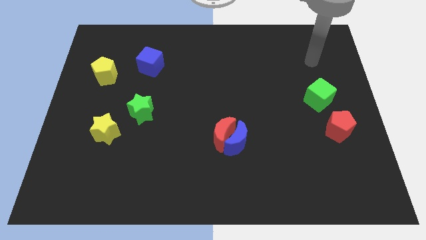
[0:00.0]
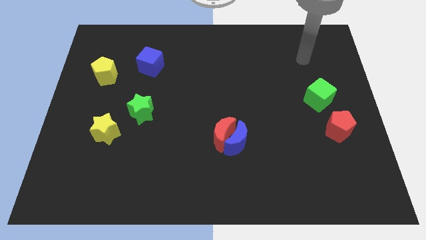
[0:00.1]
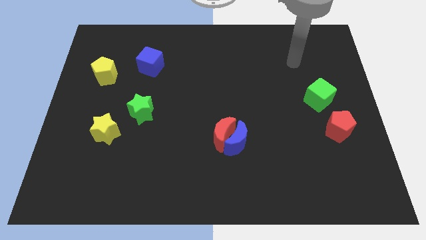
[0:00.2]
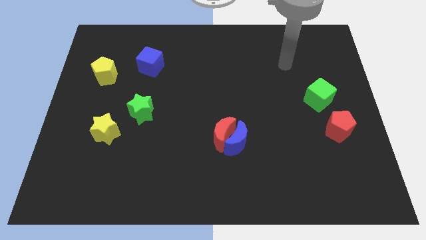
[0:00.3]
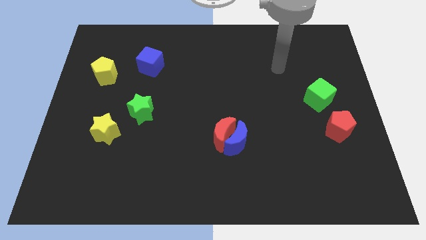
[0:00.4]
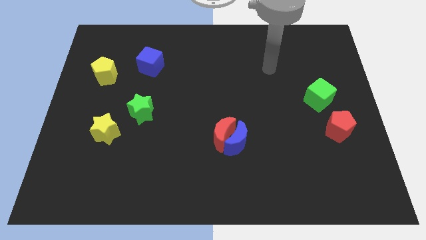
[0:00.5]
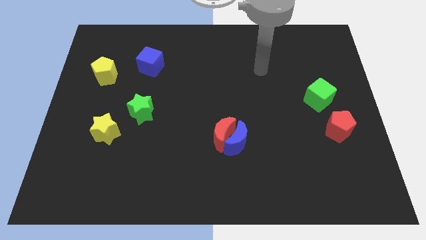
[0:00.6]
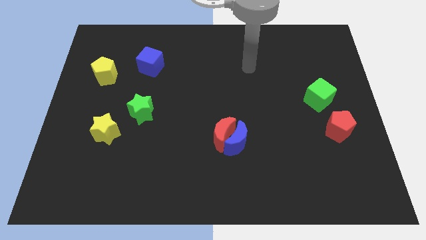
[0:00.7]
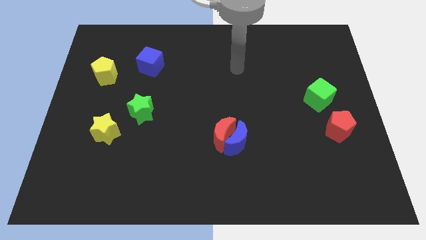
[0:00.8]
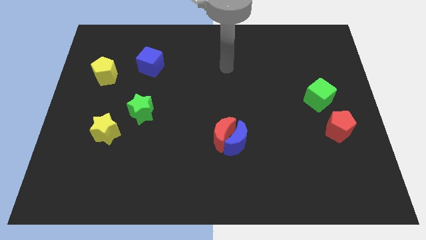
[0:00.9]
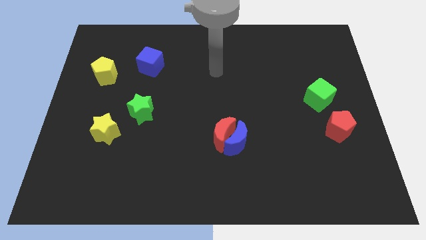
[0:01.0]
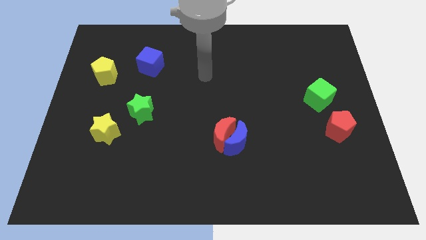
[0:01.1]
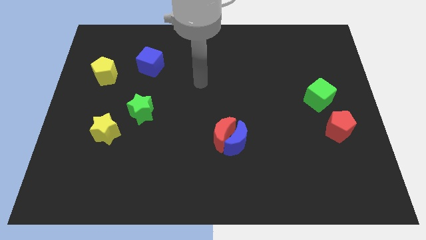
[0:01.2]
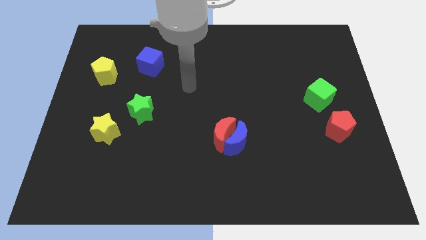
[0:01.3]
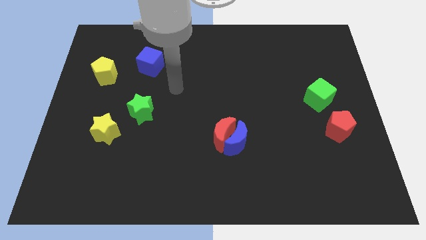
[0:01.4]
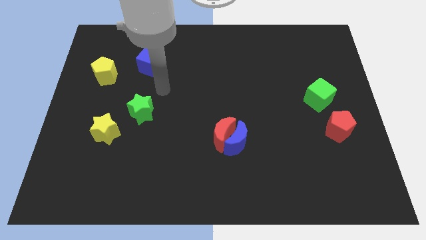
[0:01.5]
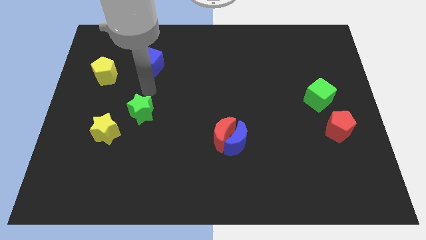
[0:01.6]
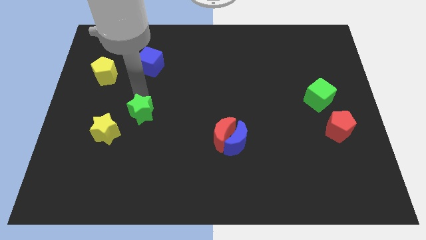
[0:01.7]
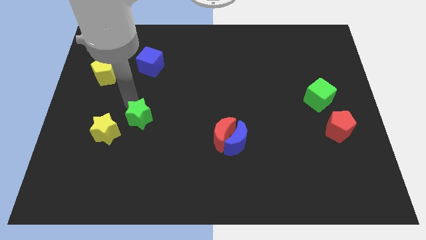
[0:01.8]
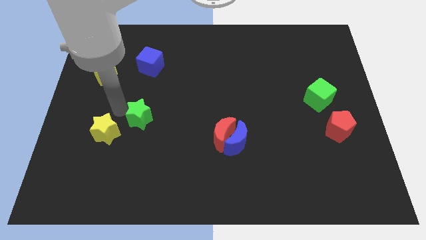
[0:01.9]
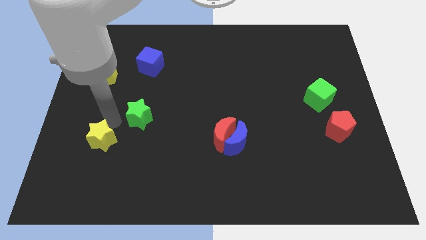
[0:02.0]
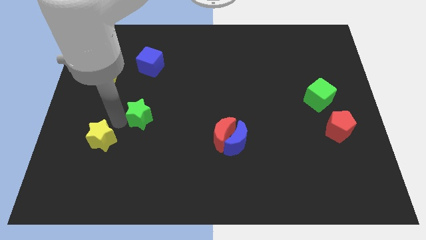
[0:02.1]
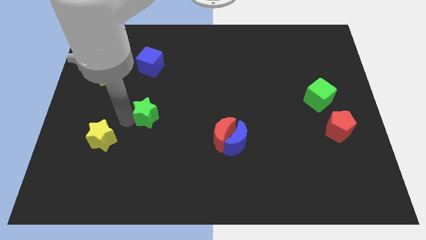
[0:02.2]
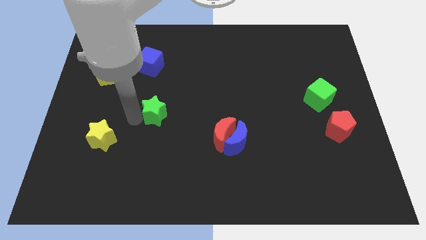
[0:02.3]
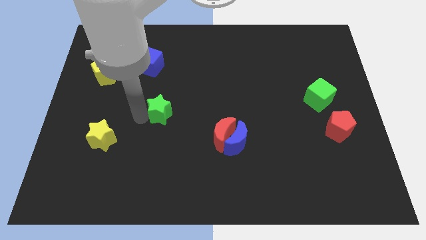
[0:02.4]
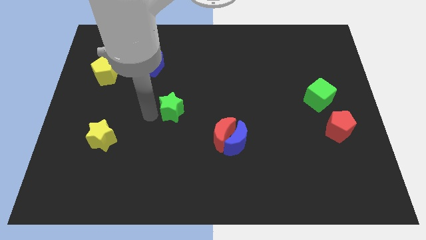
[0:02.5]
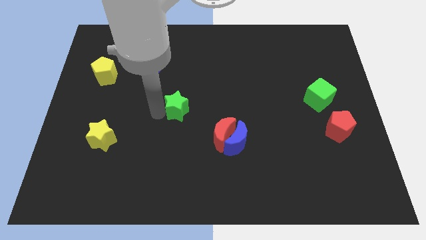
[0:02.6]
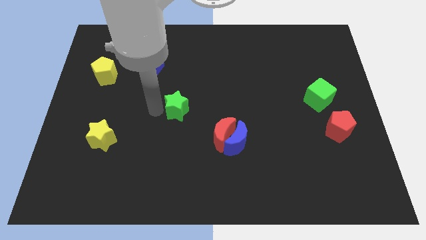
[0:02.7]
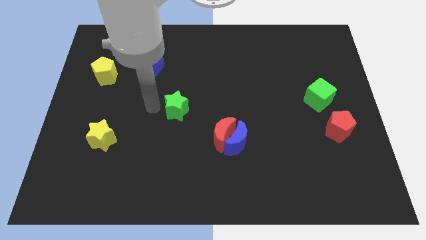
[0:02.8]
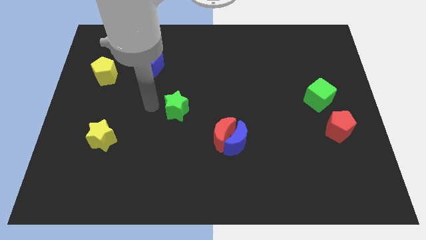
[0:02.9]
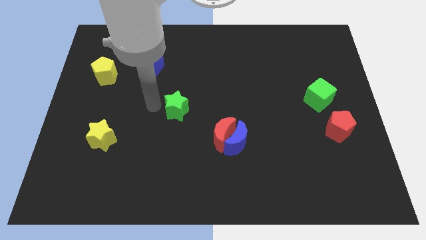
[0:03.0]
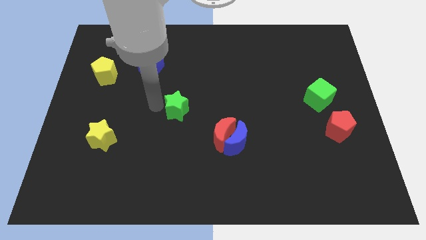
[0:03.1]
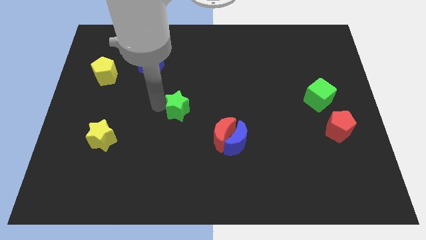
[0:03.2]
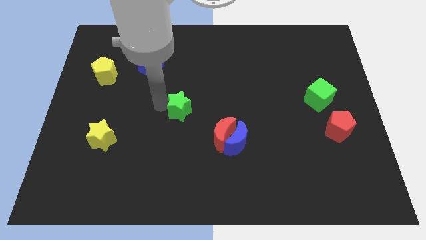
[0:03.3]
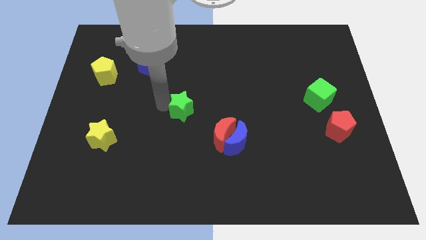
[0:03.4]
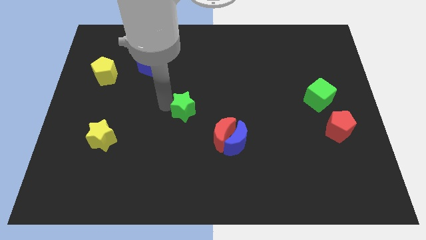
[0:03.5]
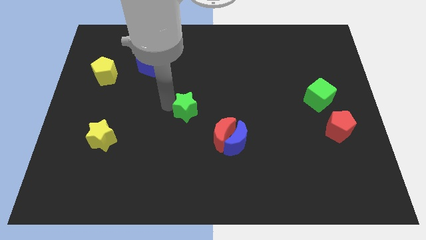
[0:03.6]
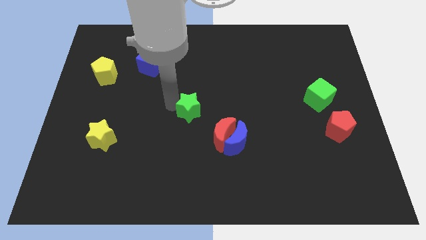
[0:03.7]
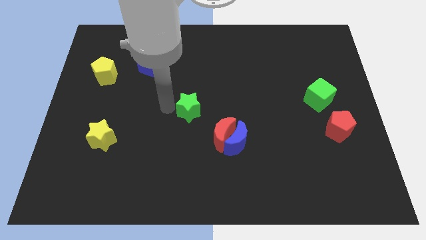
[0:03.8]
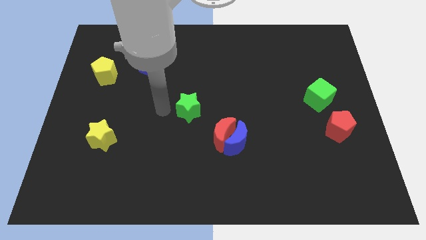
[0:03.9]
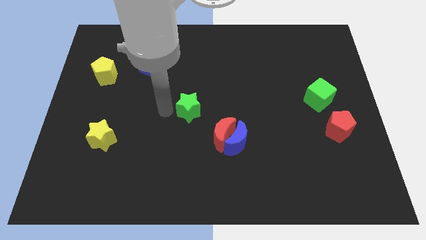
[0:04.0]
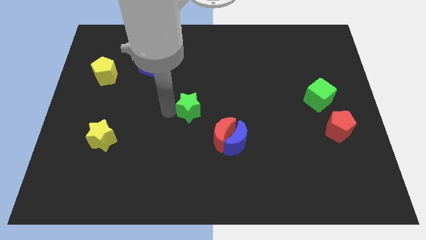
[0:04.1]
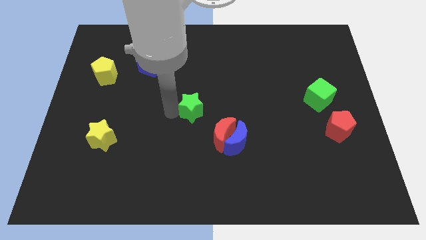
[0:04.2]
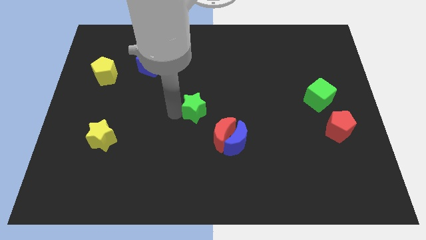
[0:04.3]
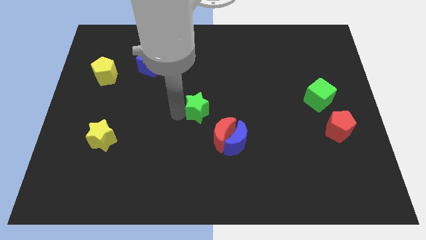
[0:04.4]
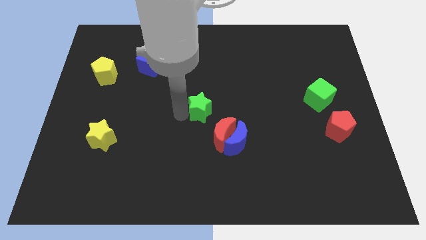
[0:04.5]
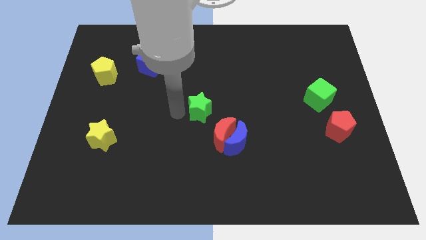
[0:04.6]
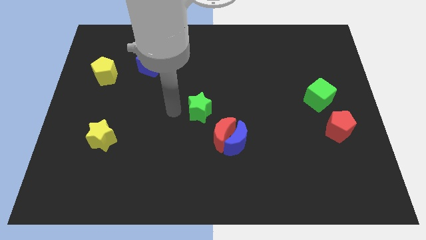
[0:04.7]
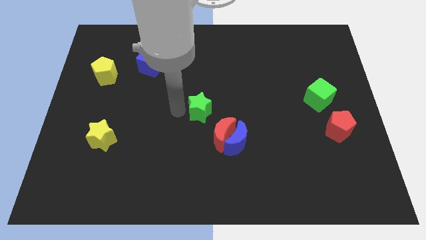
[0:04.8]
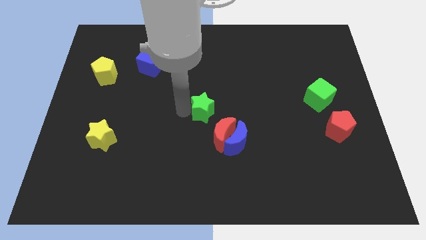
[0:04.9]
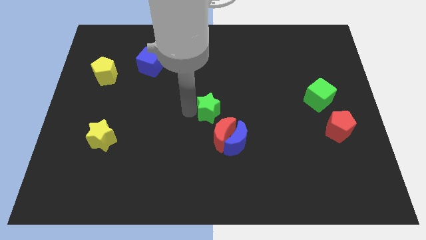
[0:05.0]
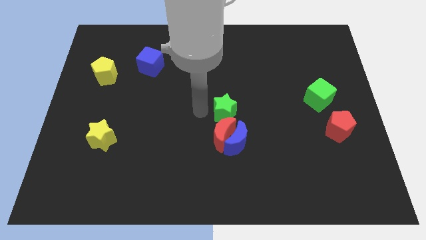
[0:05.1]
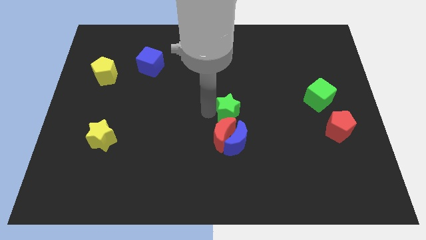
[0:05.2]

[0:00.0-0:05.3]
move the green star right

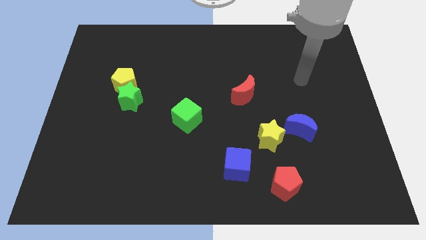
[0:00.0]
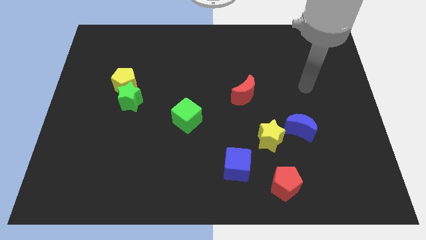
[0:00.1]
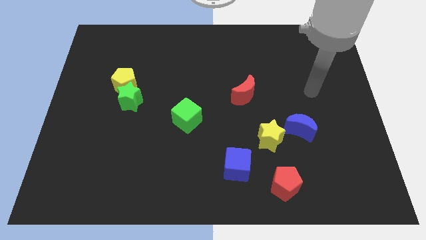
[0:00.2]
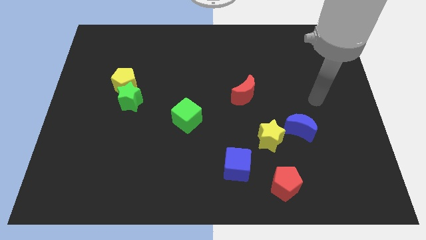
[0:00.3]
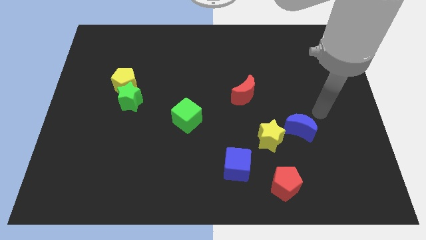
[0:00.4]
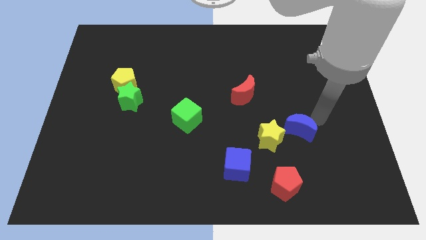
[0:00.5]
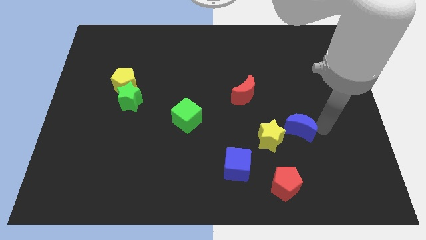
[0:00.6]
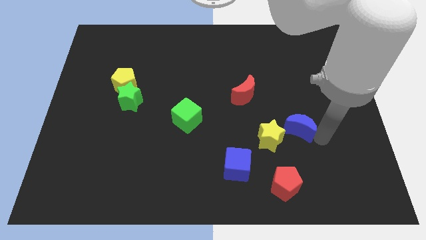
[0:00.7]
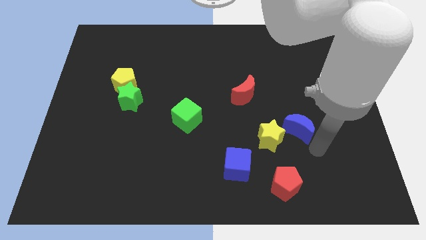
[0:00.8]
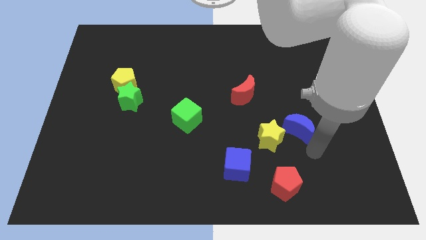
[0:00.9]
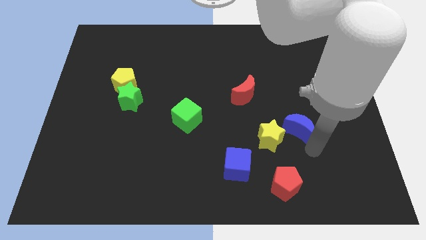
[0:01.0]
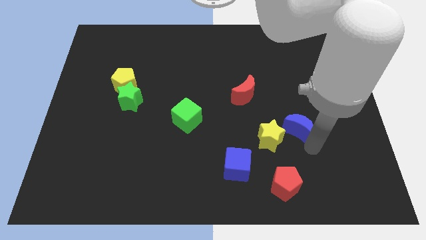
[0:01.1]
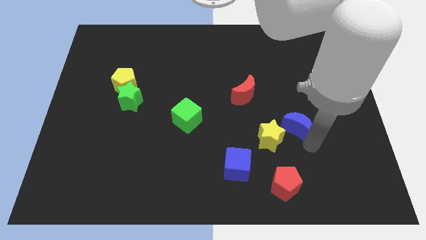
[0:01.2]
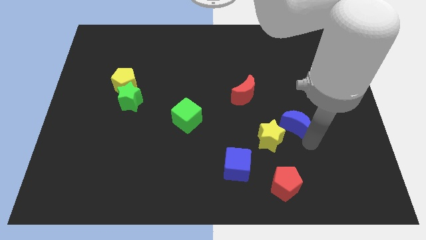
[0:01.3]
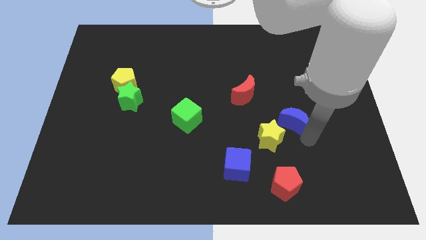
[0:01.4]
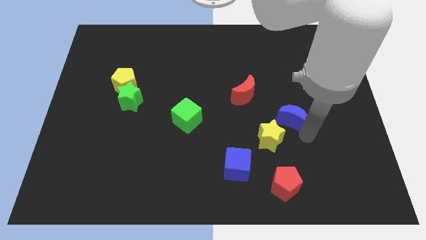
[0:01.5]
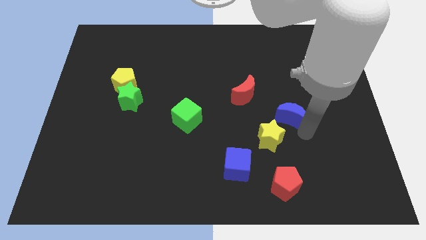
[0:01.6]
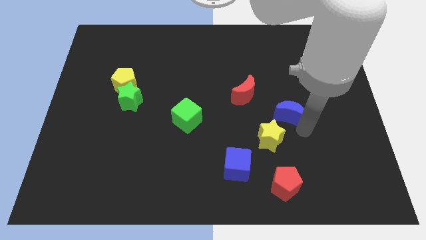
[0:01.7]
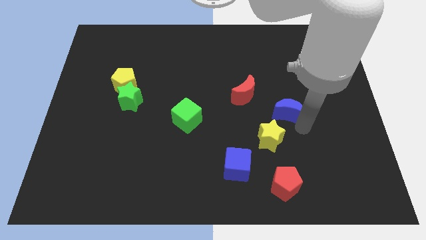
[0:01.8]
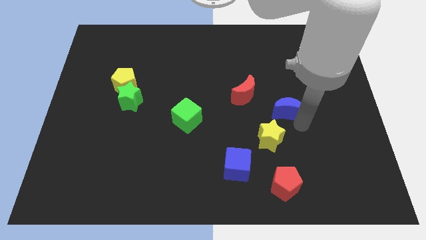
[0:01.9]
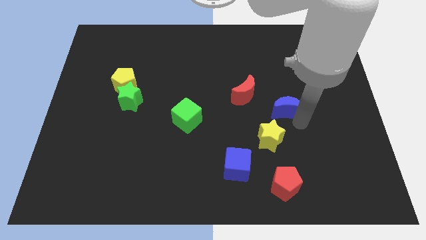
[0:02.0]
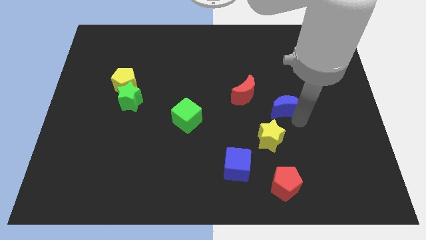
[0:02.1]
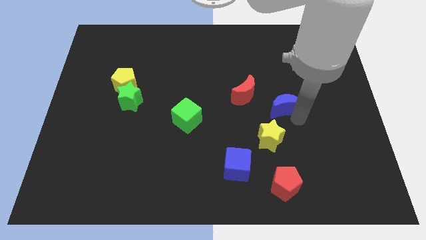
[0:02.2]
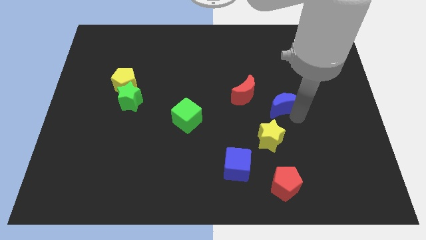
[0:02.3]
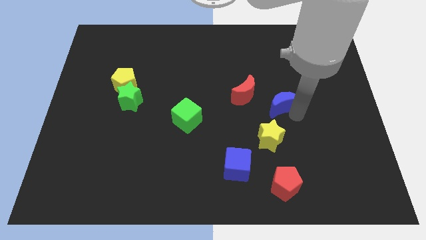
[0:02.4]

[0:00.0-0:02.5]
slide the blue moon somewhat up and then to the left

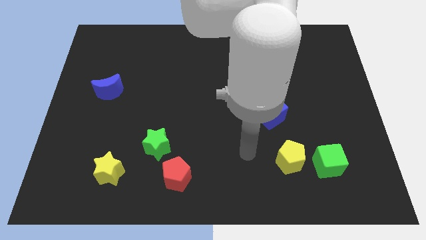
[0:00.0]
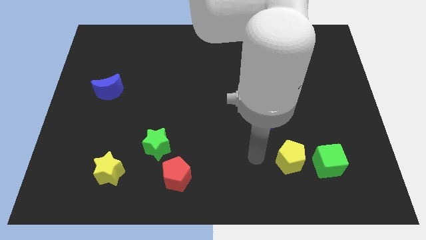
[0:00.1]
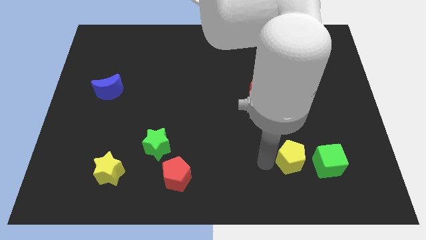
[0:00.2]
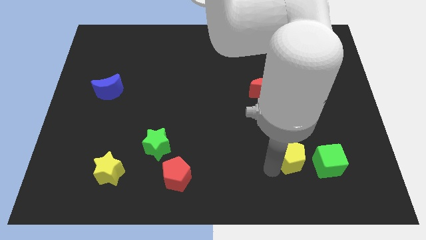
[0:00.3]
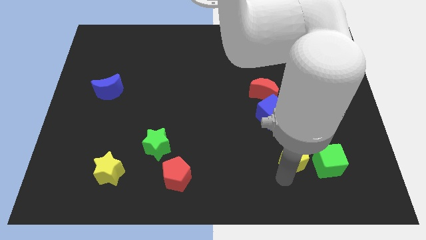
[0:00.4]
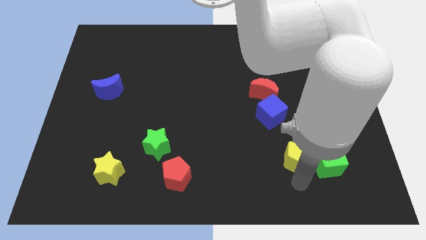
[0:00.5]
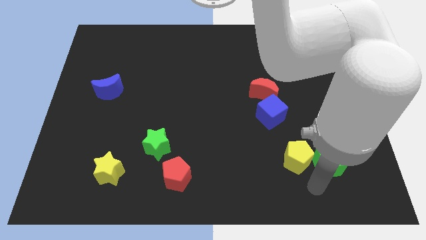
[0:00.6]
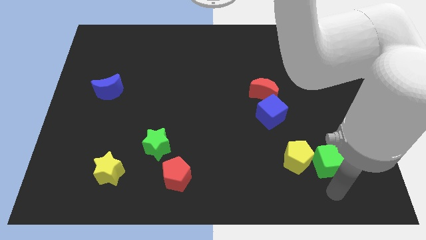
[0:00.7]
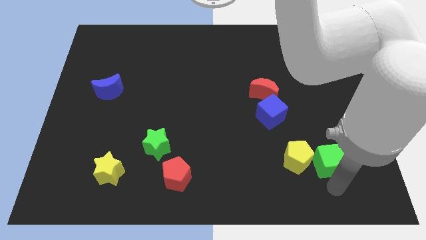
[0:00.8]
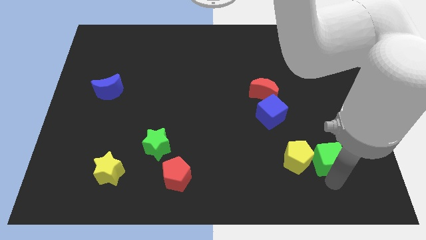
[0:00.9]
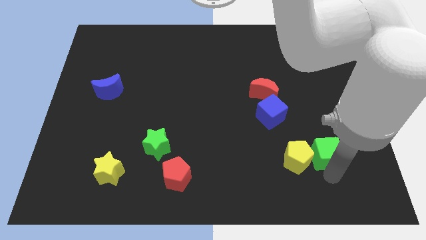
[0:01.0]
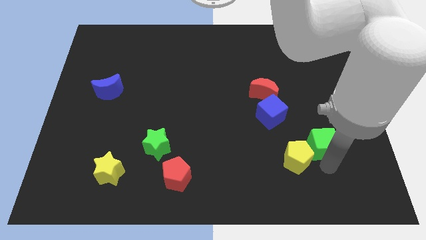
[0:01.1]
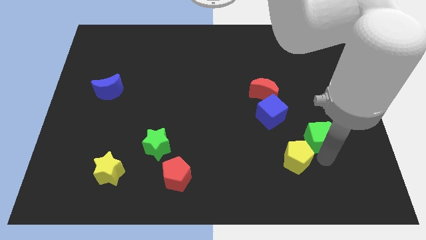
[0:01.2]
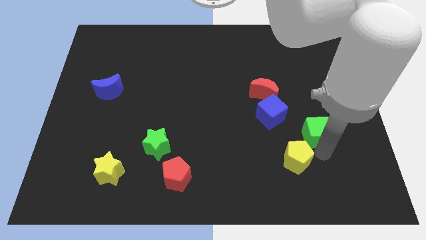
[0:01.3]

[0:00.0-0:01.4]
slightly move the green cube upwards
